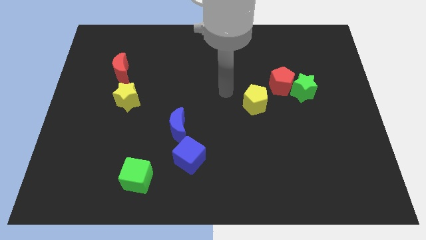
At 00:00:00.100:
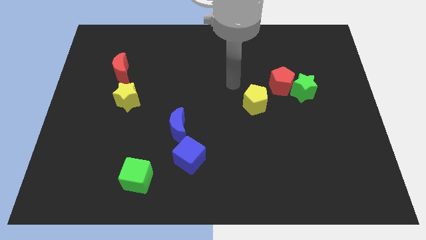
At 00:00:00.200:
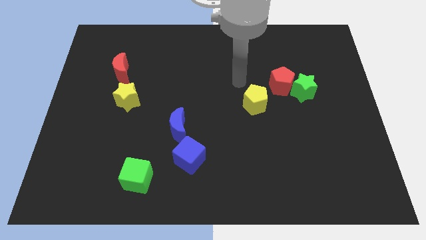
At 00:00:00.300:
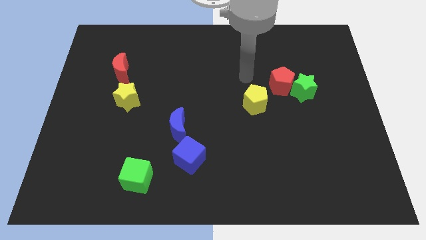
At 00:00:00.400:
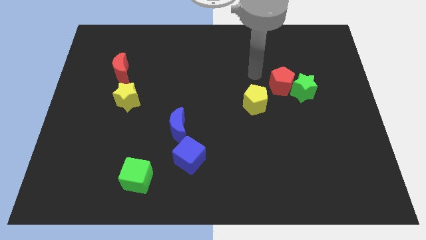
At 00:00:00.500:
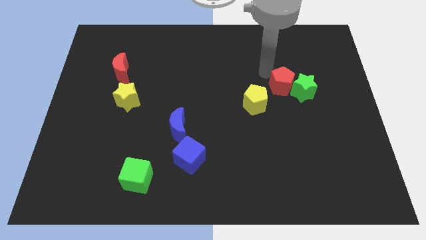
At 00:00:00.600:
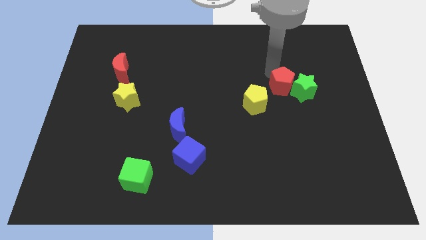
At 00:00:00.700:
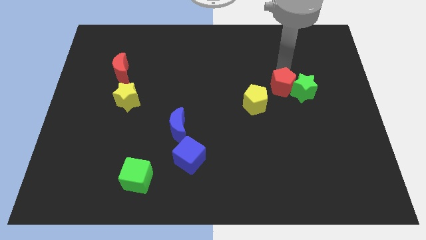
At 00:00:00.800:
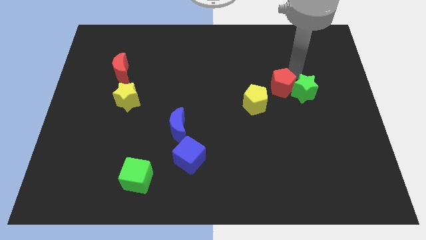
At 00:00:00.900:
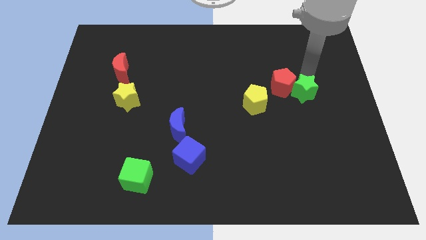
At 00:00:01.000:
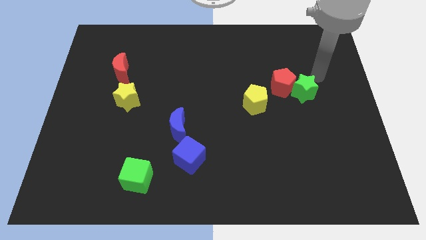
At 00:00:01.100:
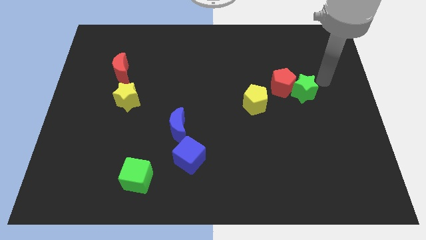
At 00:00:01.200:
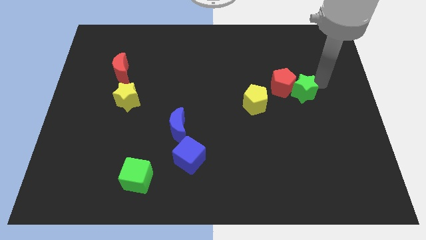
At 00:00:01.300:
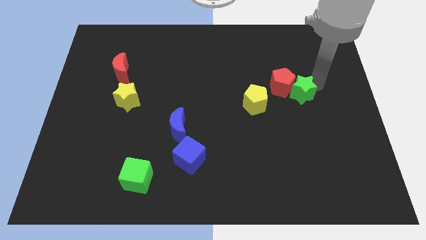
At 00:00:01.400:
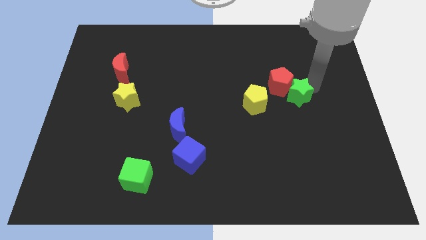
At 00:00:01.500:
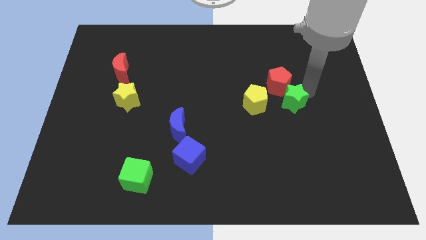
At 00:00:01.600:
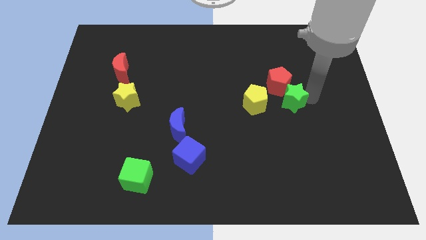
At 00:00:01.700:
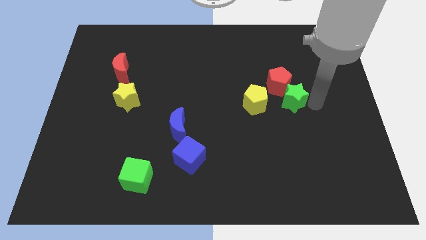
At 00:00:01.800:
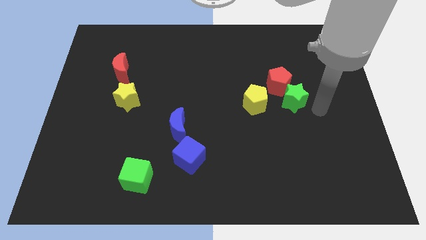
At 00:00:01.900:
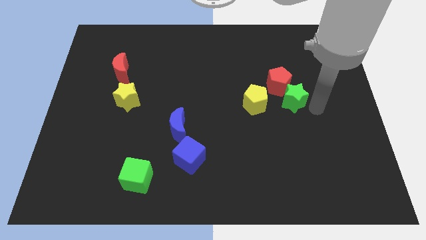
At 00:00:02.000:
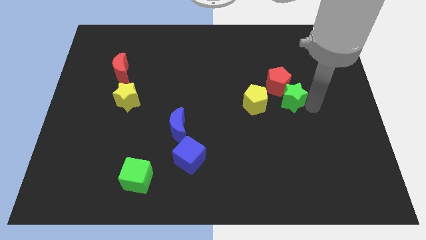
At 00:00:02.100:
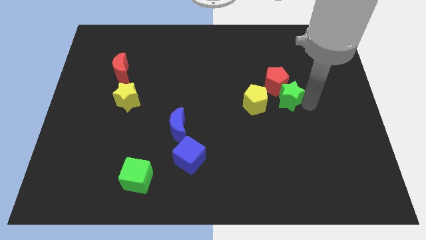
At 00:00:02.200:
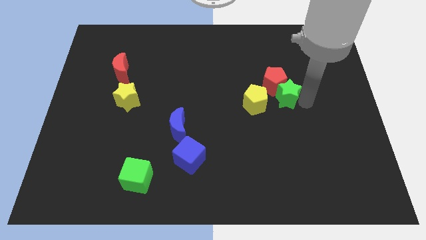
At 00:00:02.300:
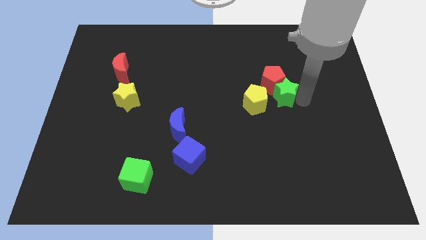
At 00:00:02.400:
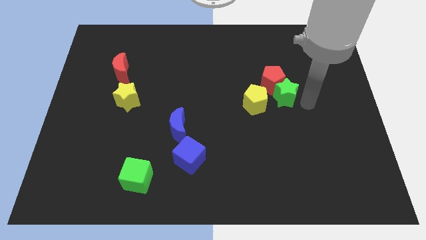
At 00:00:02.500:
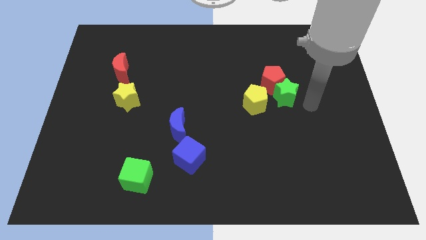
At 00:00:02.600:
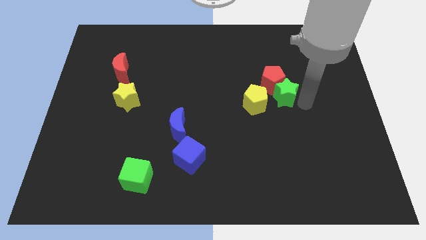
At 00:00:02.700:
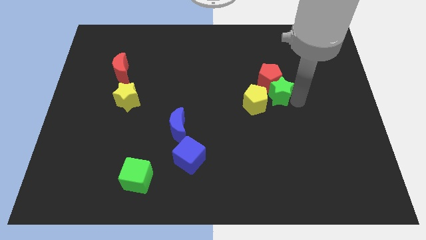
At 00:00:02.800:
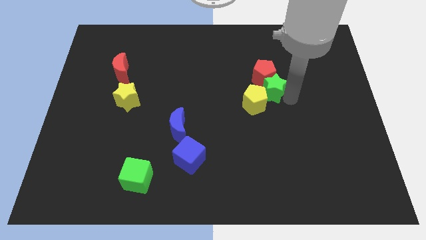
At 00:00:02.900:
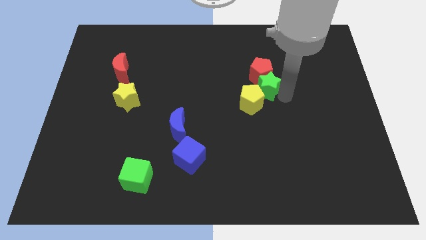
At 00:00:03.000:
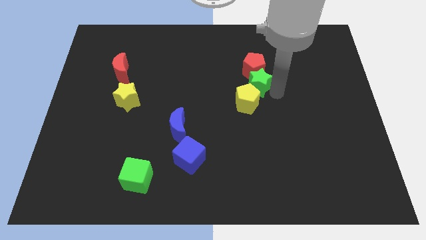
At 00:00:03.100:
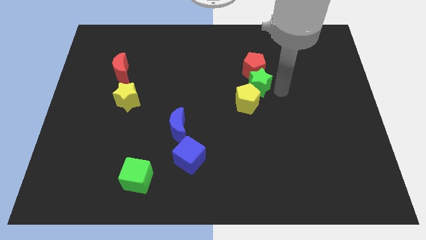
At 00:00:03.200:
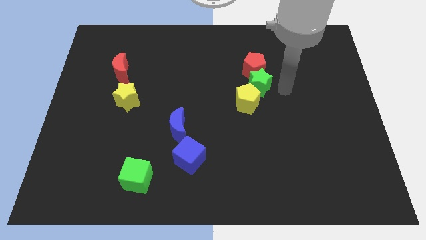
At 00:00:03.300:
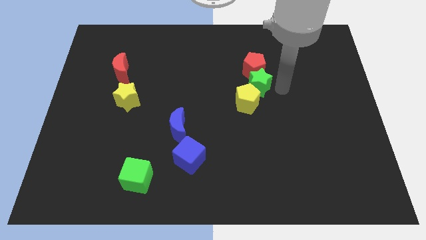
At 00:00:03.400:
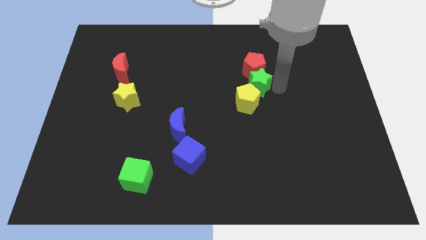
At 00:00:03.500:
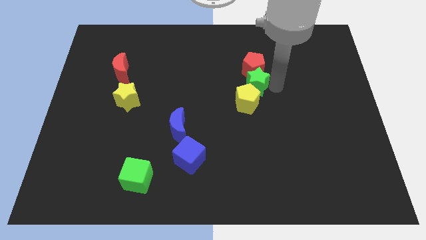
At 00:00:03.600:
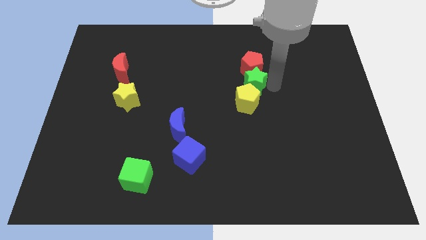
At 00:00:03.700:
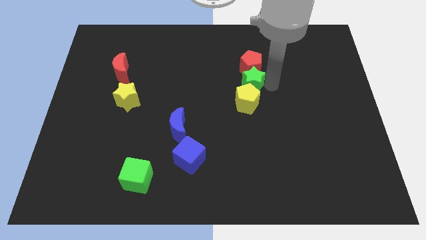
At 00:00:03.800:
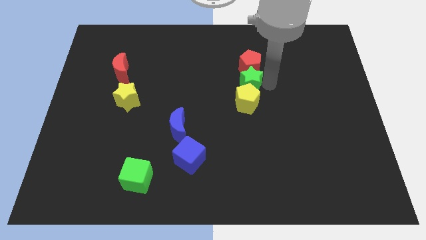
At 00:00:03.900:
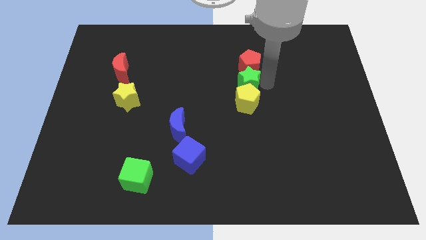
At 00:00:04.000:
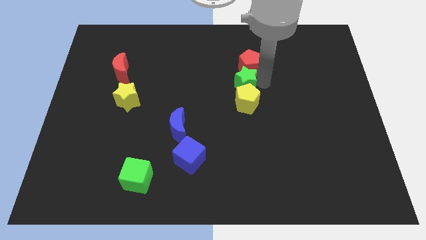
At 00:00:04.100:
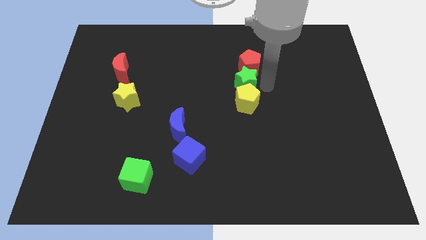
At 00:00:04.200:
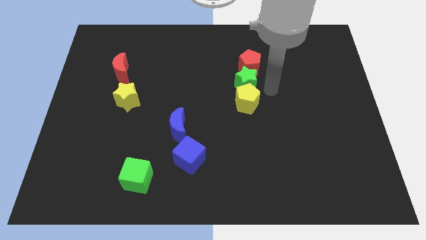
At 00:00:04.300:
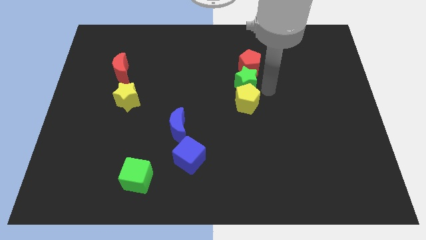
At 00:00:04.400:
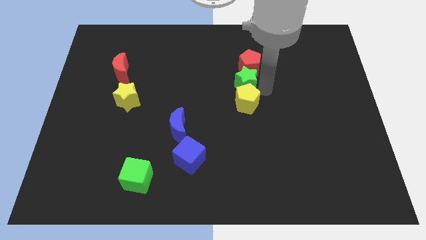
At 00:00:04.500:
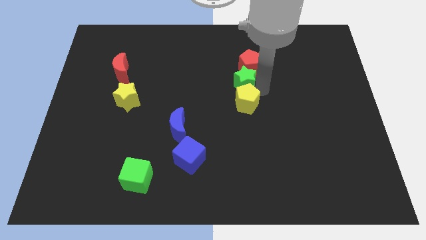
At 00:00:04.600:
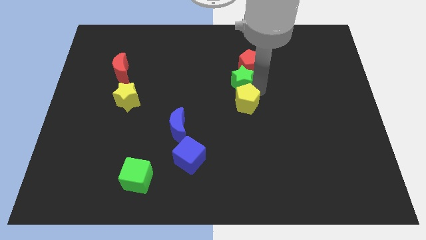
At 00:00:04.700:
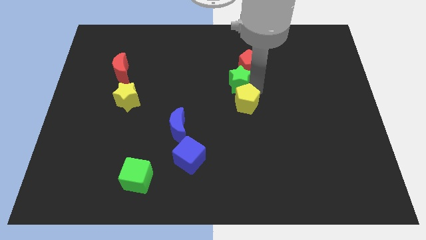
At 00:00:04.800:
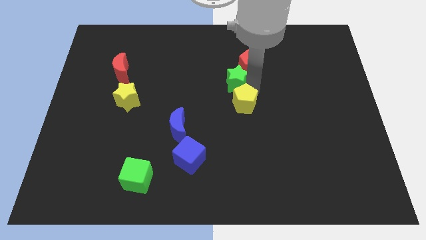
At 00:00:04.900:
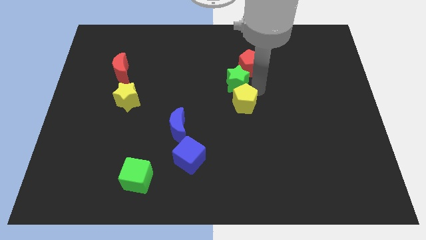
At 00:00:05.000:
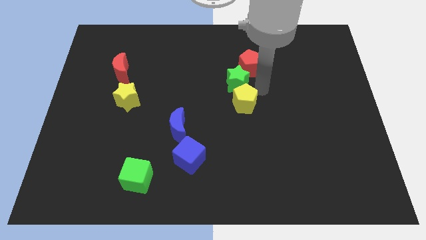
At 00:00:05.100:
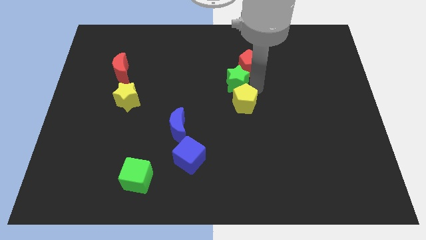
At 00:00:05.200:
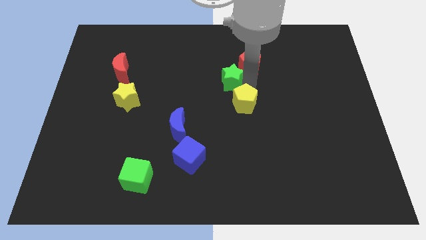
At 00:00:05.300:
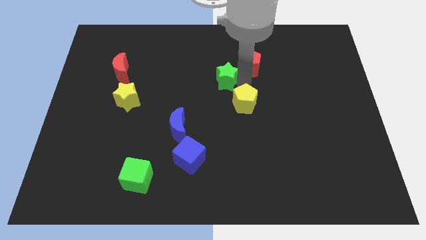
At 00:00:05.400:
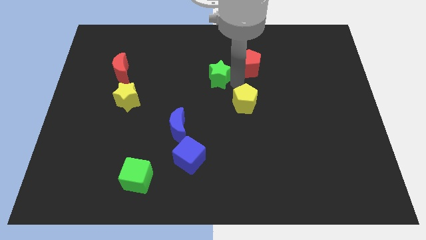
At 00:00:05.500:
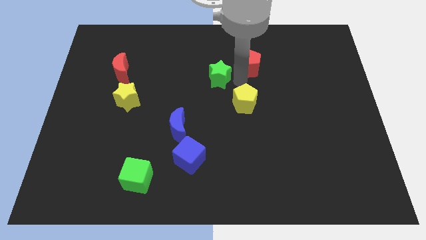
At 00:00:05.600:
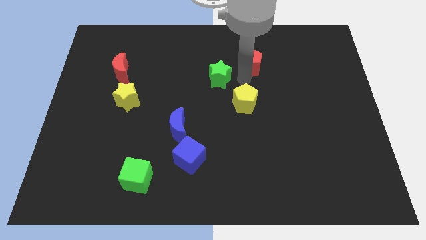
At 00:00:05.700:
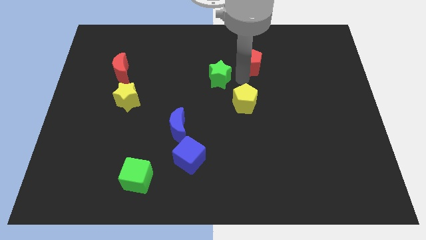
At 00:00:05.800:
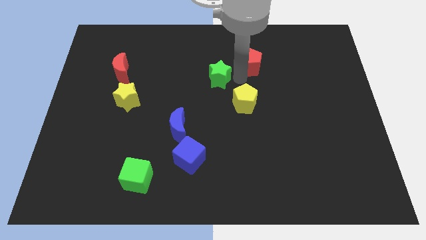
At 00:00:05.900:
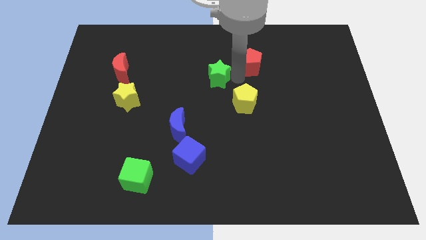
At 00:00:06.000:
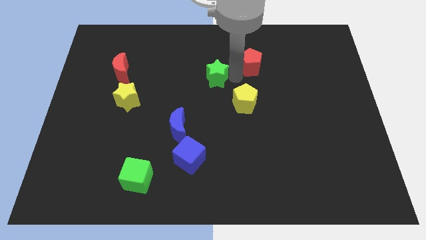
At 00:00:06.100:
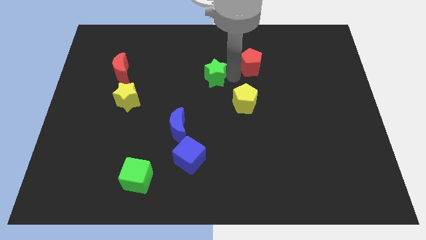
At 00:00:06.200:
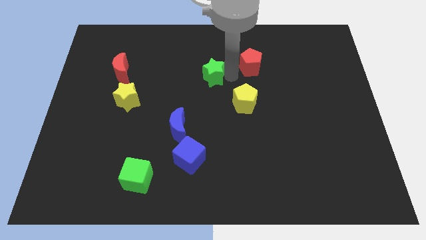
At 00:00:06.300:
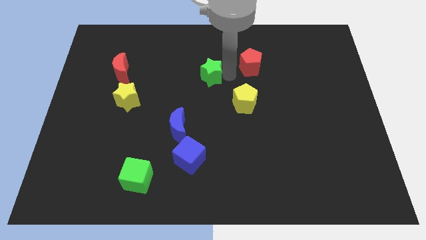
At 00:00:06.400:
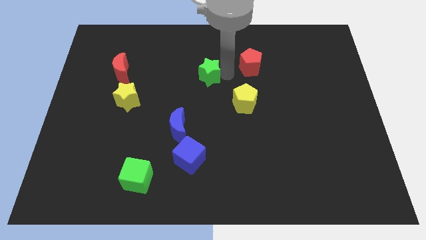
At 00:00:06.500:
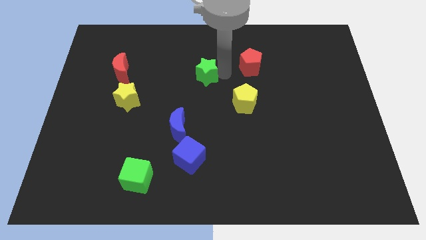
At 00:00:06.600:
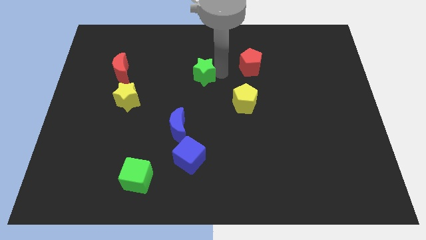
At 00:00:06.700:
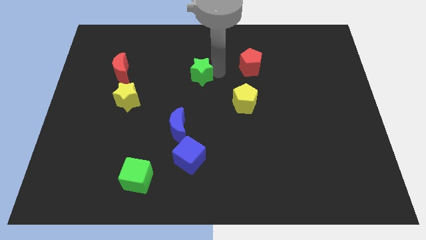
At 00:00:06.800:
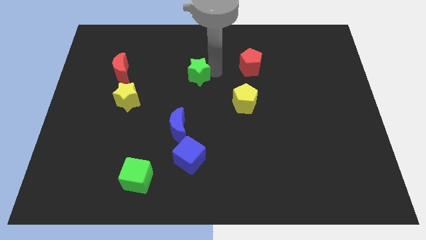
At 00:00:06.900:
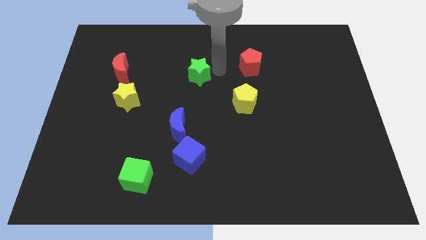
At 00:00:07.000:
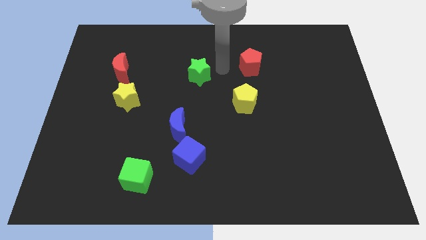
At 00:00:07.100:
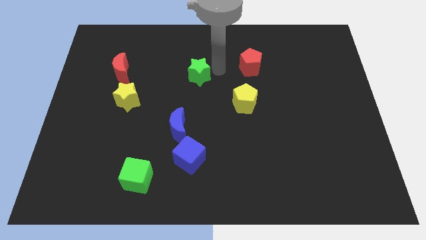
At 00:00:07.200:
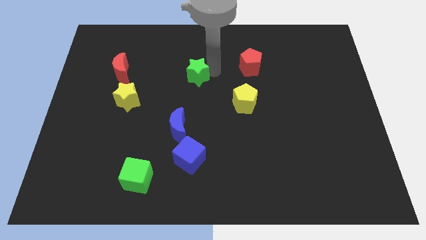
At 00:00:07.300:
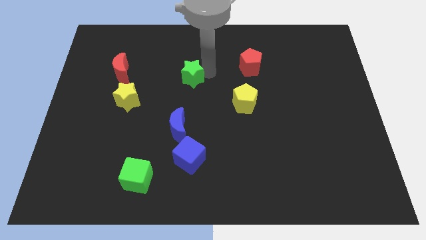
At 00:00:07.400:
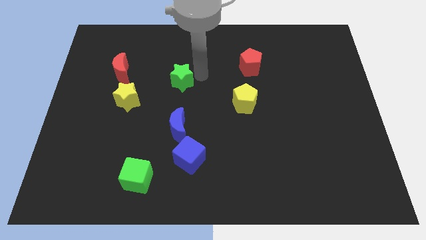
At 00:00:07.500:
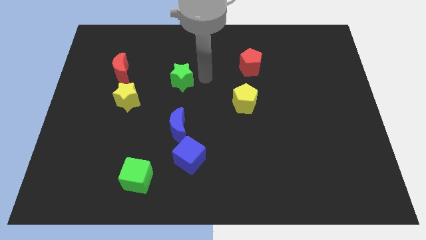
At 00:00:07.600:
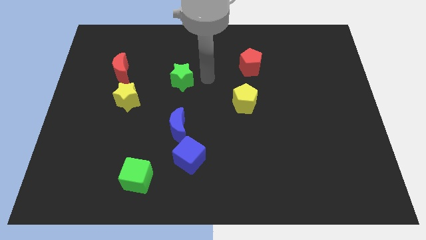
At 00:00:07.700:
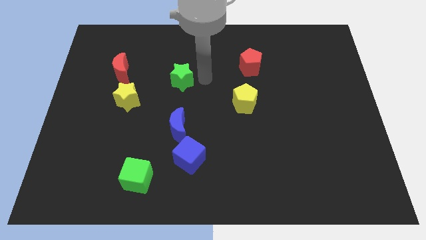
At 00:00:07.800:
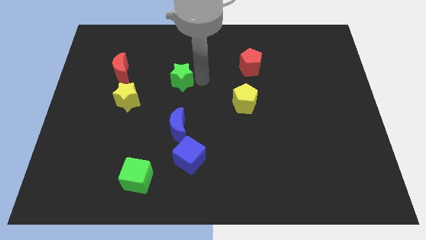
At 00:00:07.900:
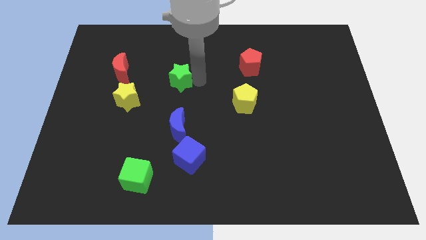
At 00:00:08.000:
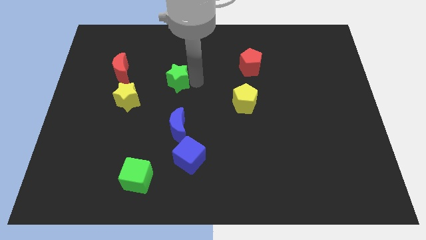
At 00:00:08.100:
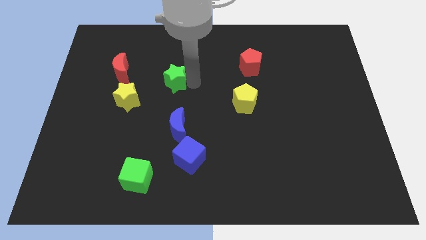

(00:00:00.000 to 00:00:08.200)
slide the green star diagonally up and to the right of the yellow star
